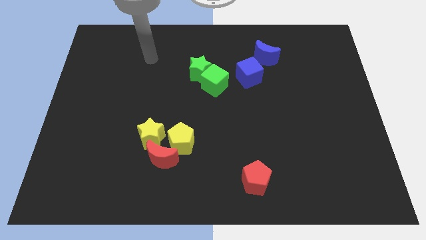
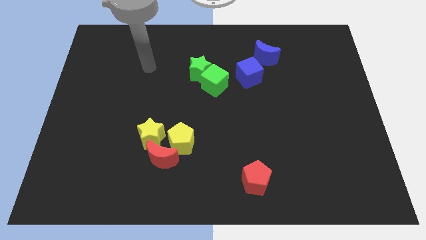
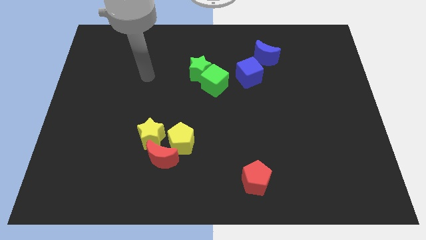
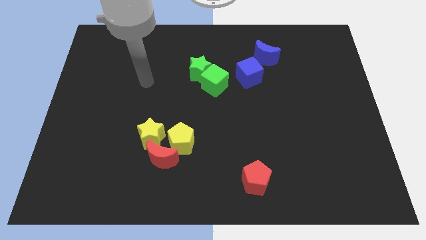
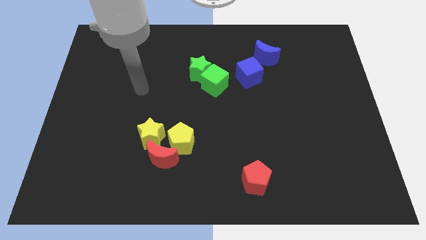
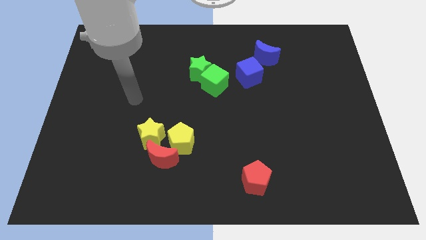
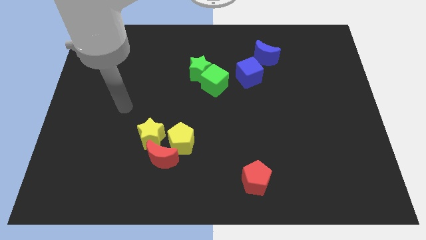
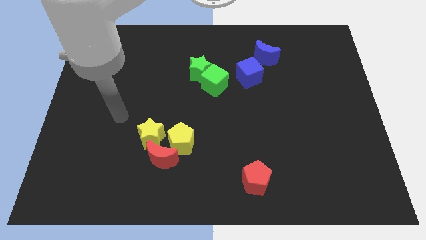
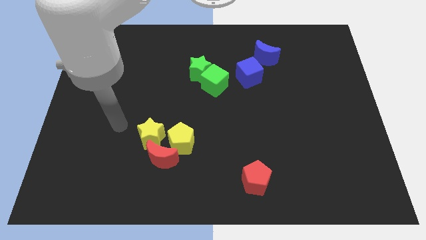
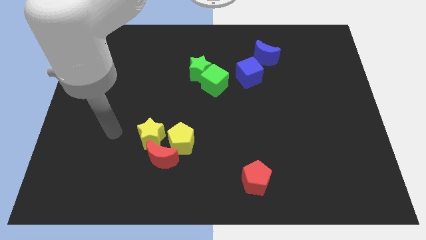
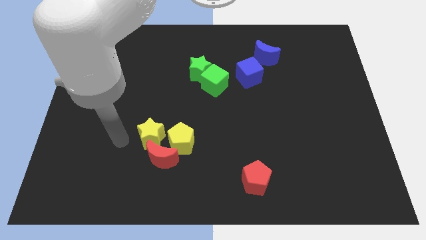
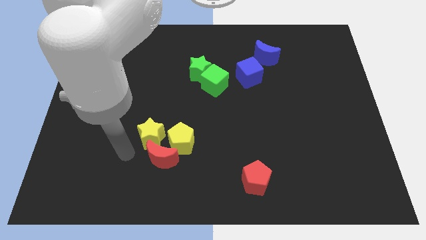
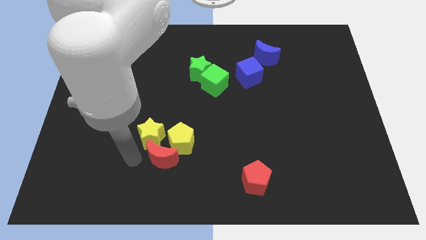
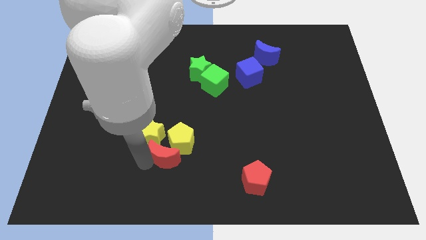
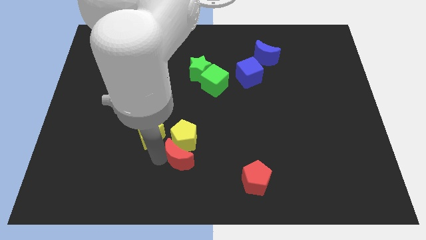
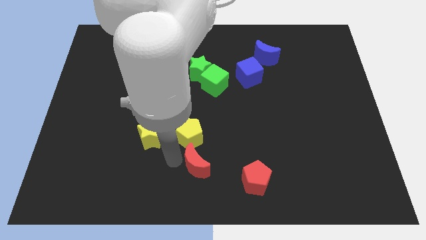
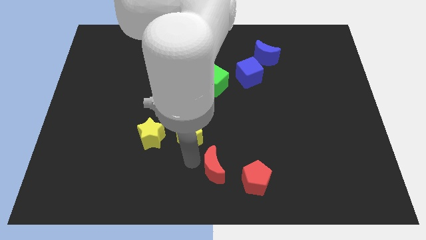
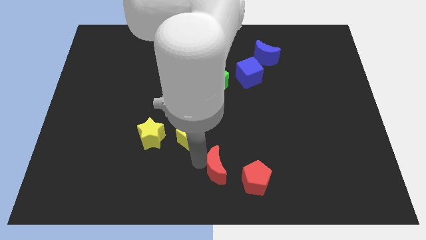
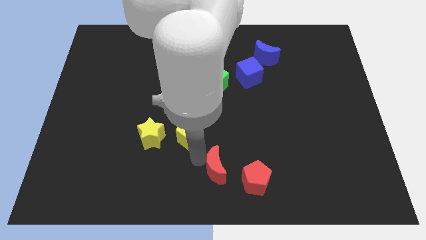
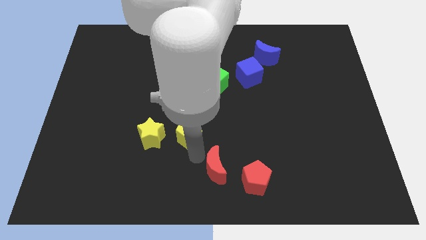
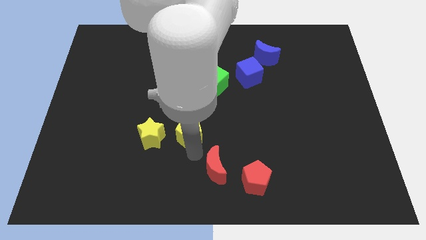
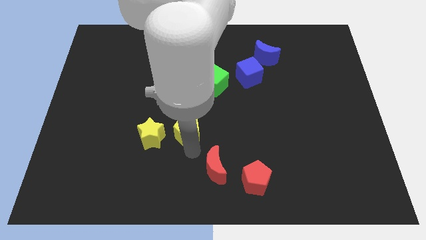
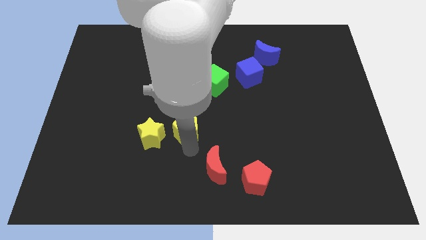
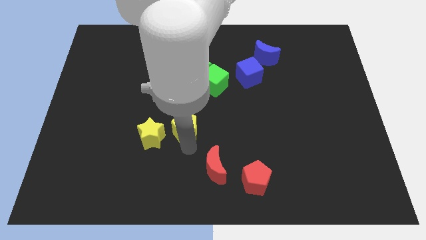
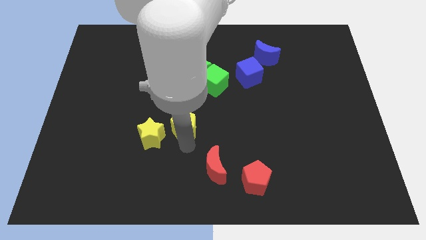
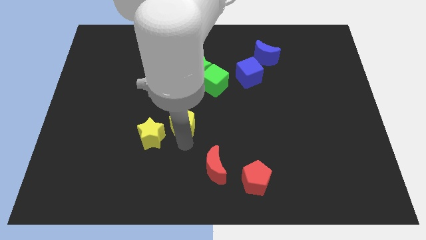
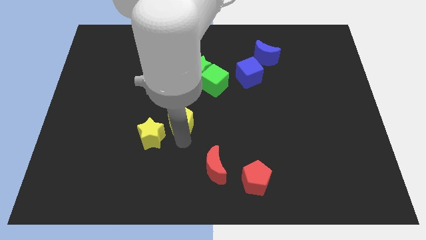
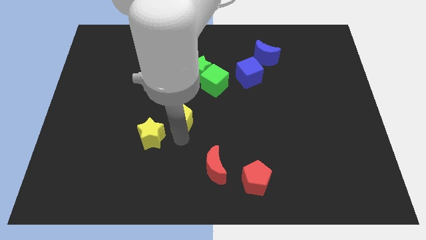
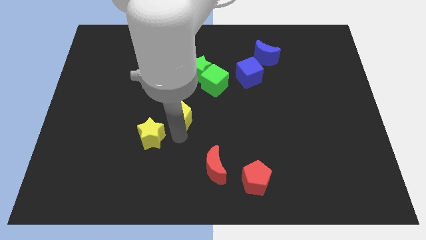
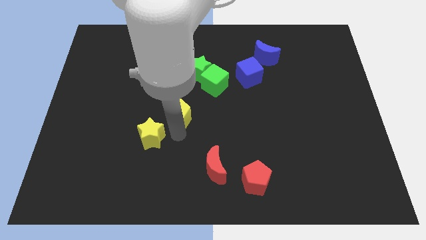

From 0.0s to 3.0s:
slide the yellow pentagon slightly upwards

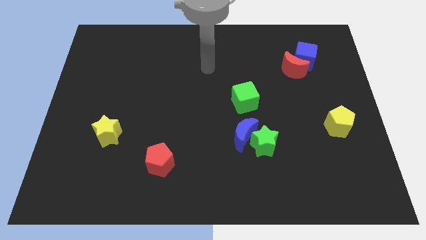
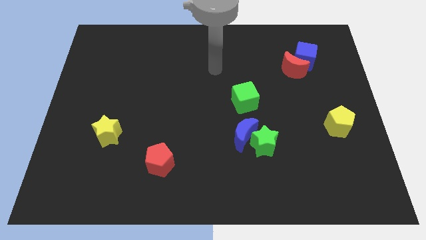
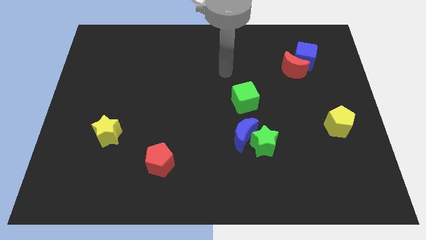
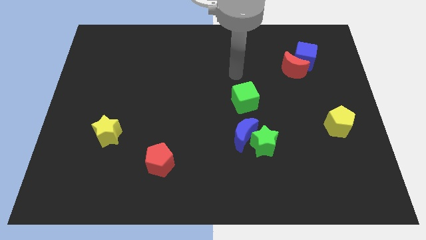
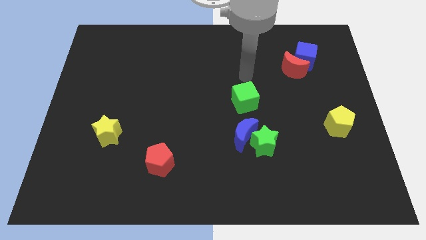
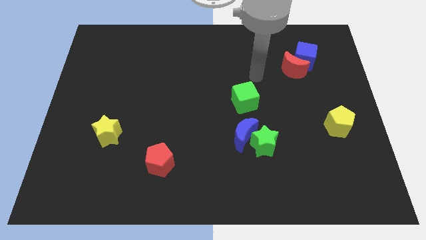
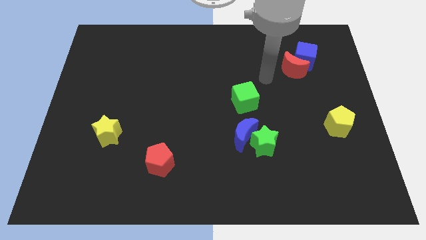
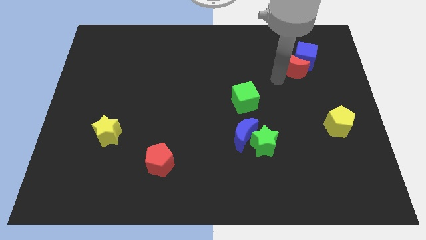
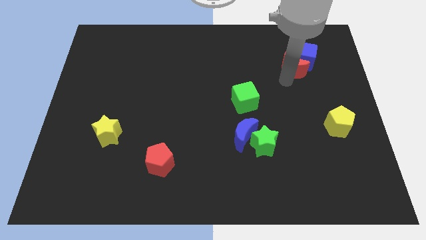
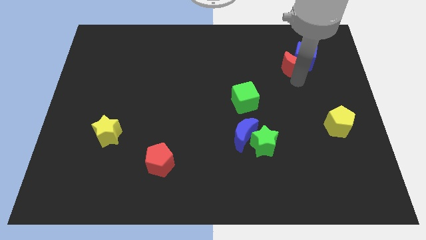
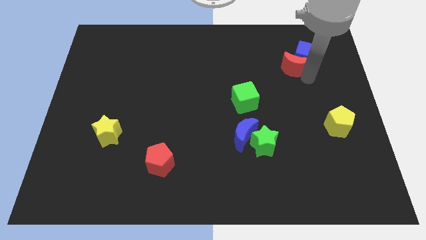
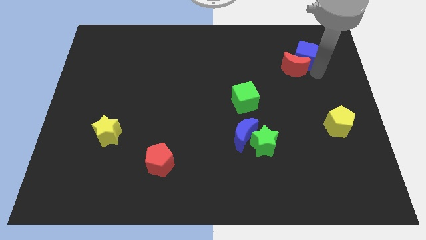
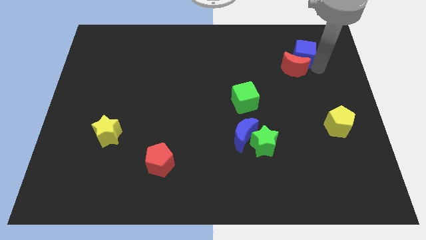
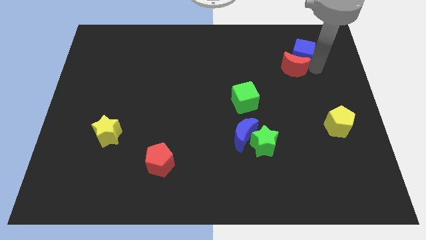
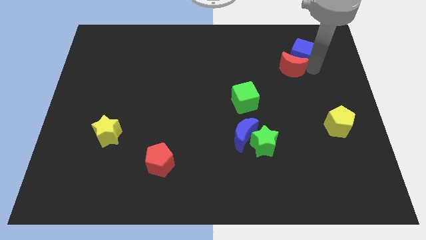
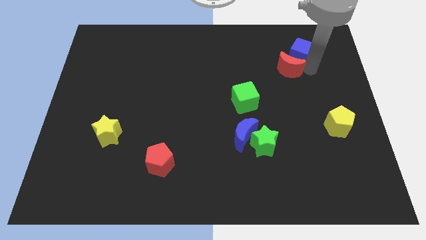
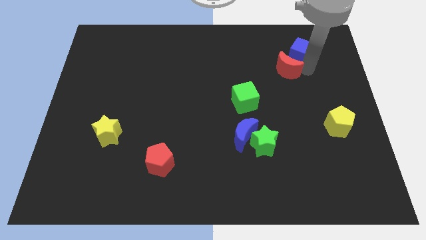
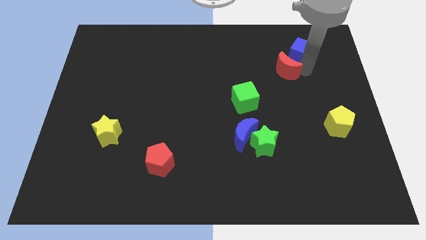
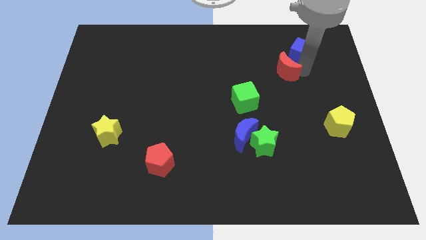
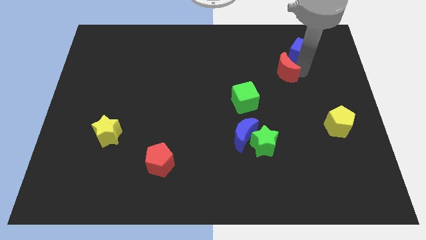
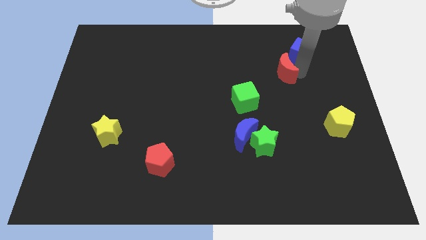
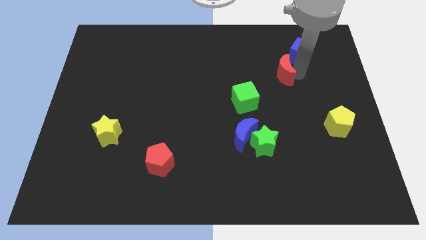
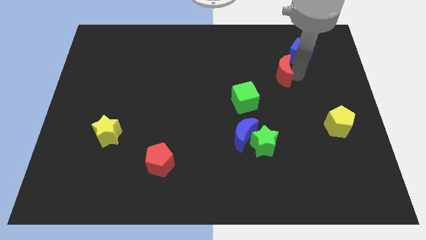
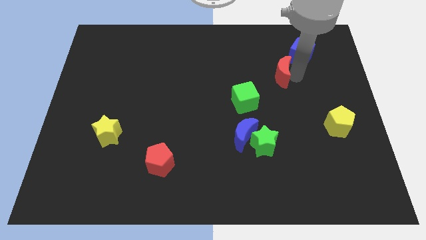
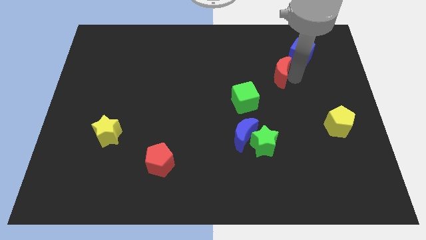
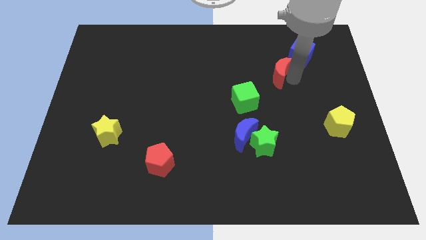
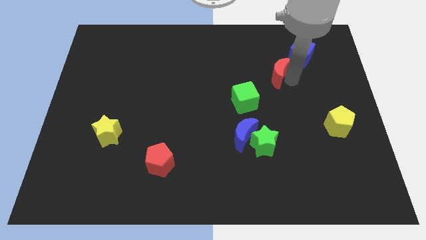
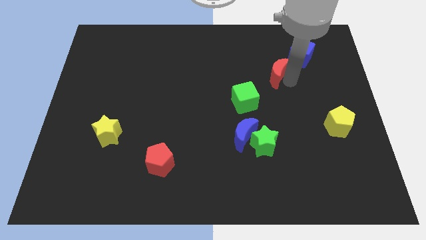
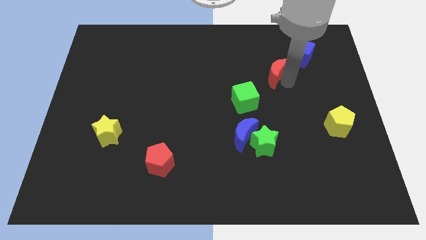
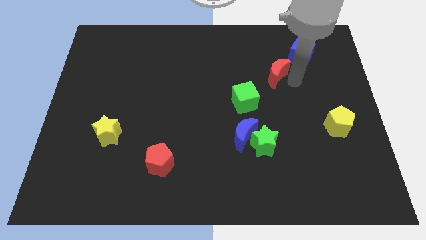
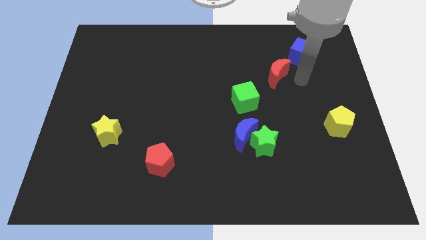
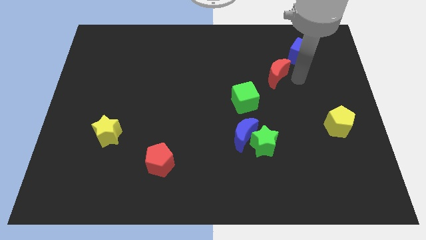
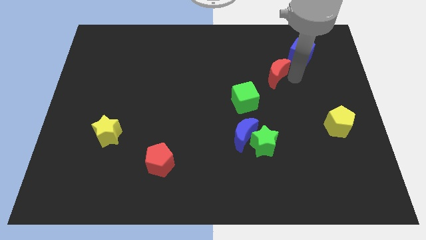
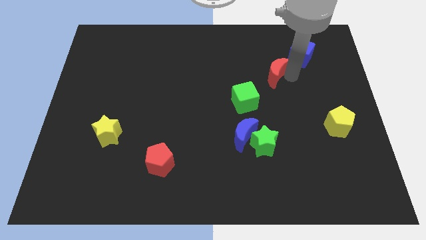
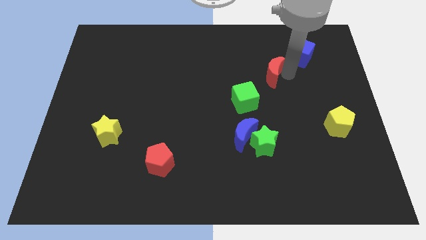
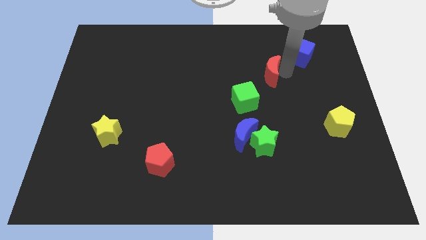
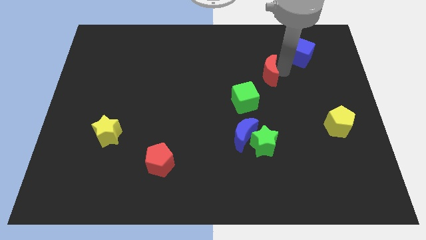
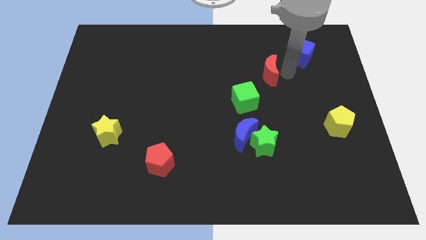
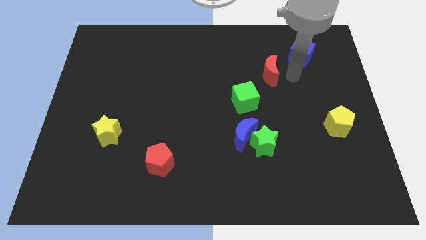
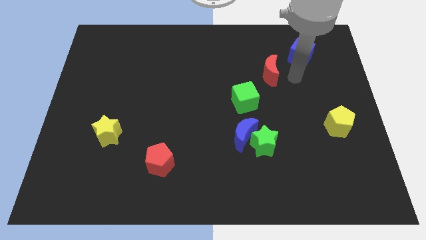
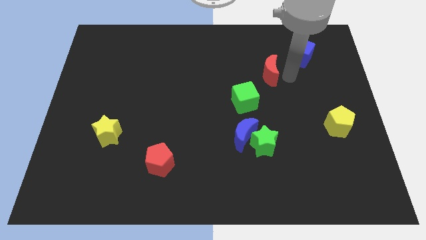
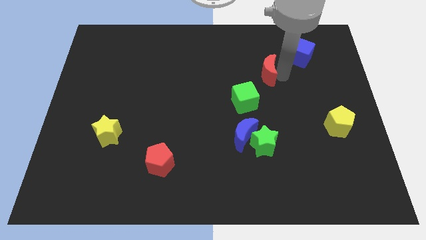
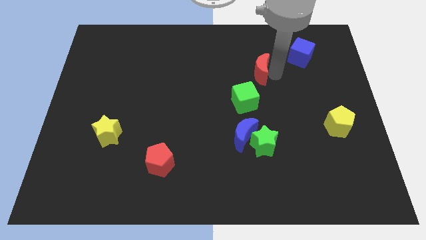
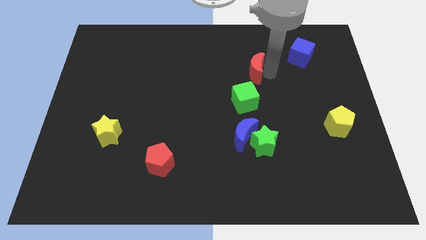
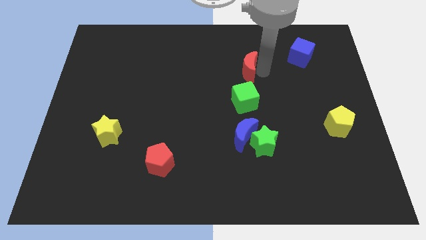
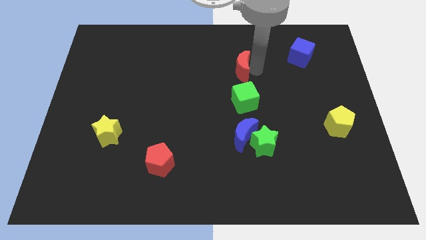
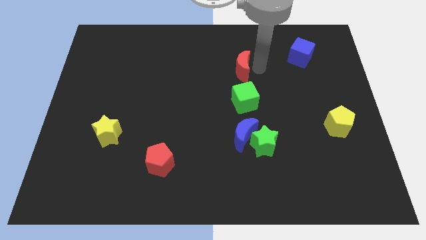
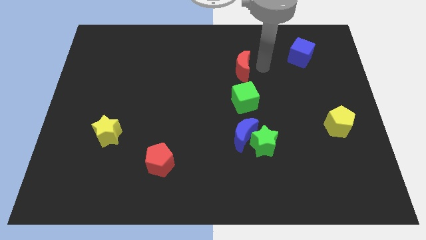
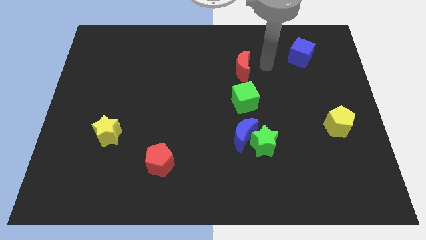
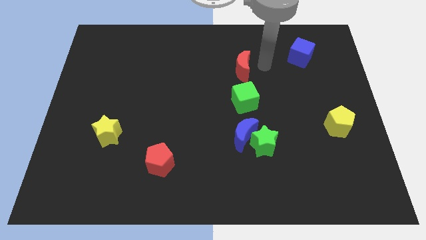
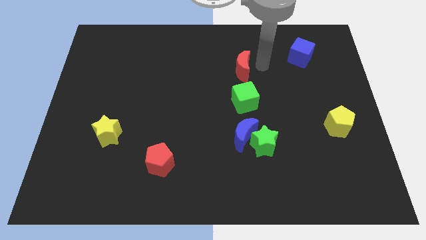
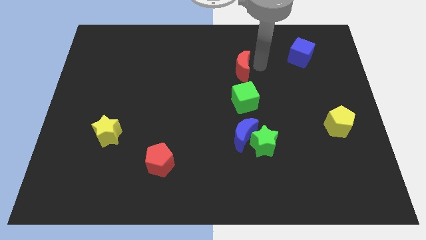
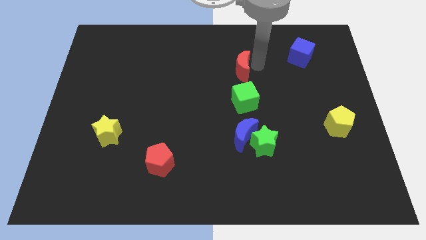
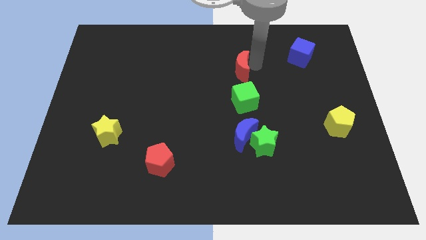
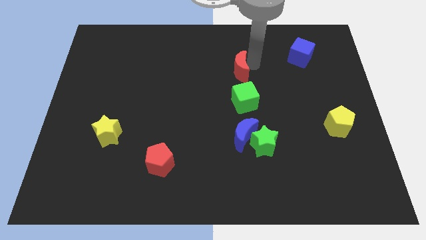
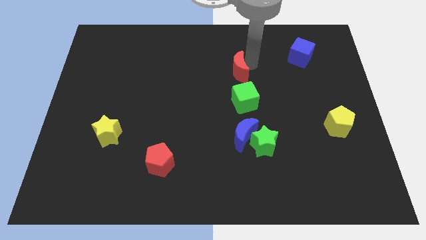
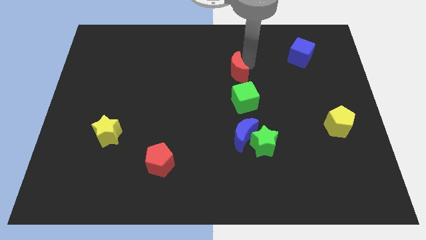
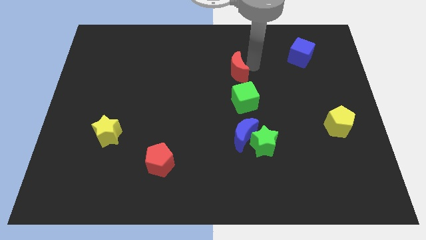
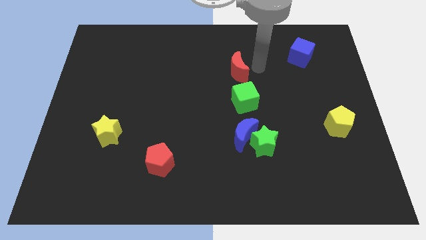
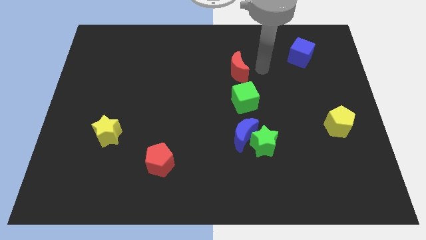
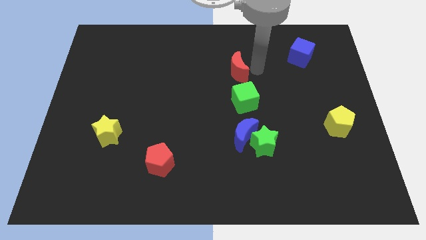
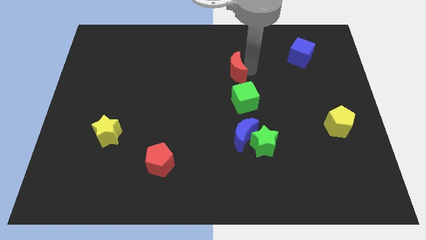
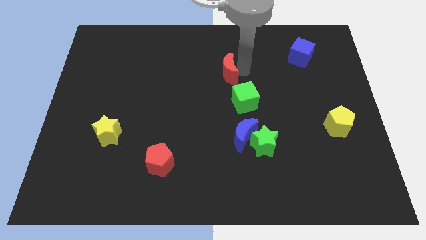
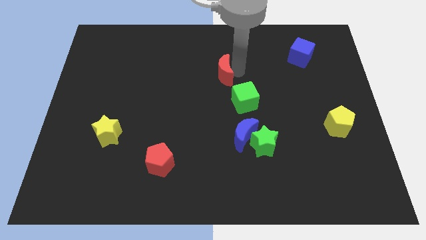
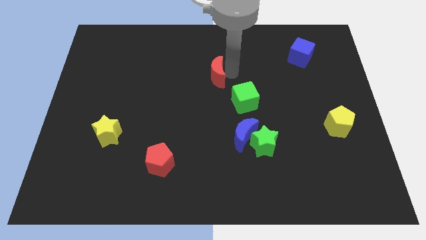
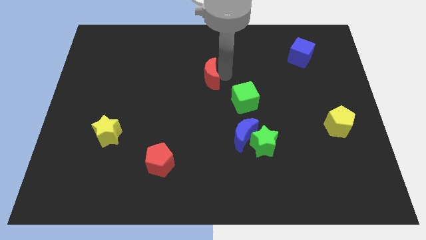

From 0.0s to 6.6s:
slide the red moon left
